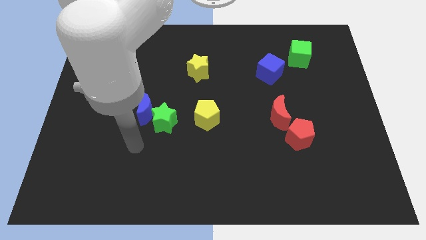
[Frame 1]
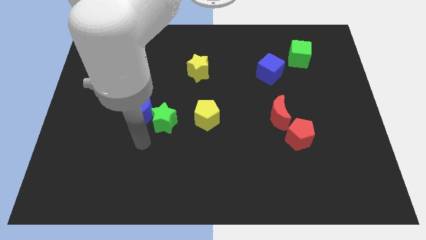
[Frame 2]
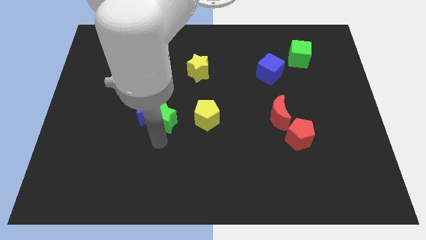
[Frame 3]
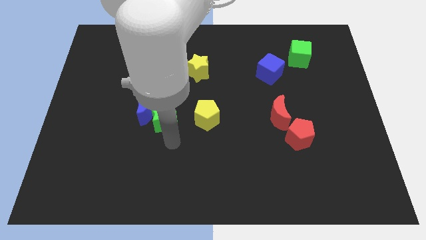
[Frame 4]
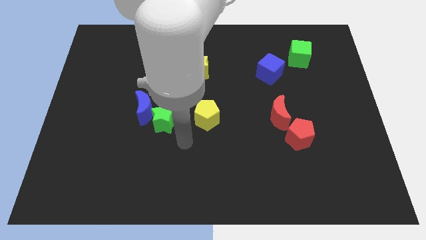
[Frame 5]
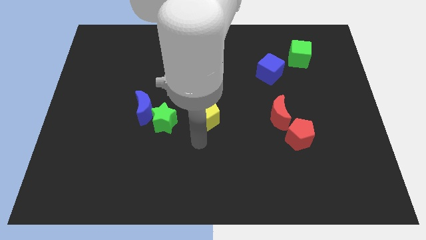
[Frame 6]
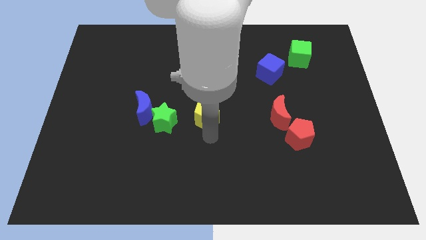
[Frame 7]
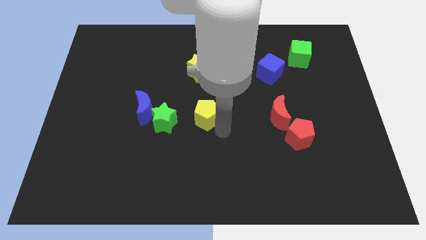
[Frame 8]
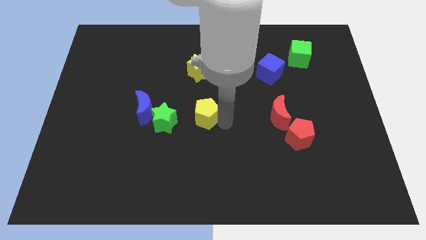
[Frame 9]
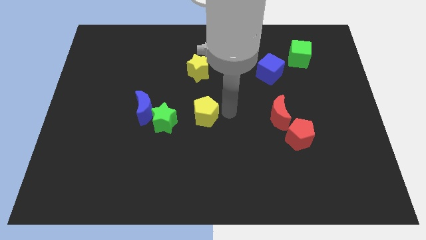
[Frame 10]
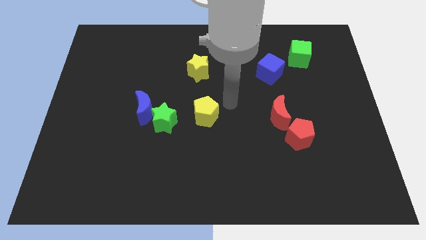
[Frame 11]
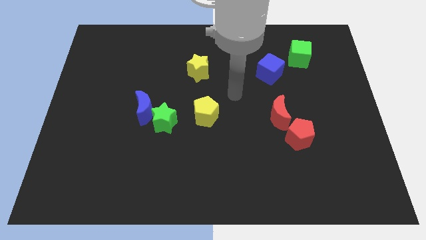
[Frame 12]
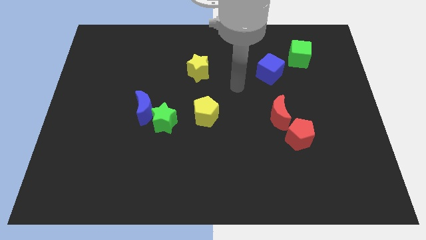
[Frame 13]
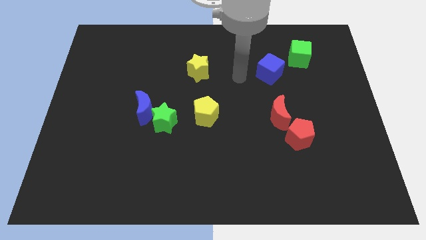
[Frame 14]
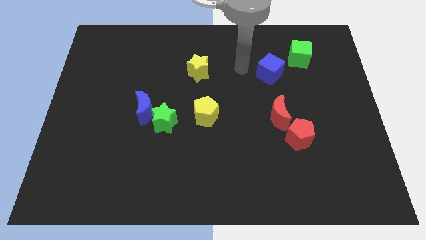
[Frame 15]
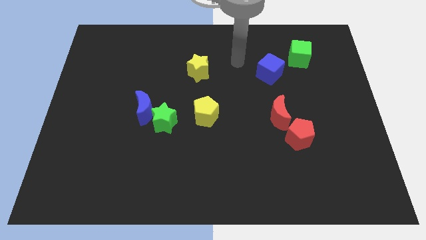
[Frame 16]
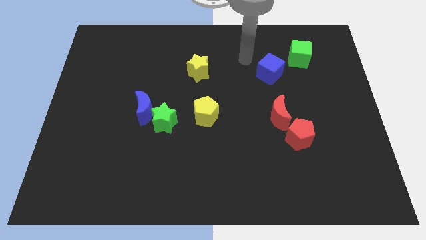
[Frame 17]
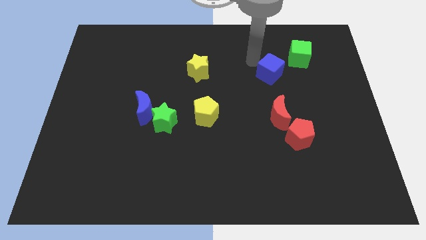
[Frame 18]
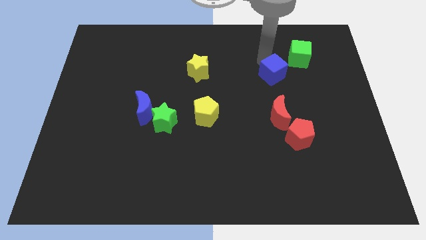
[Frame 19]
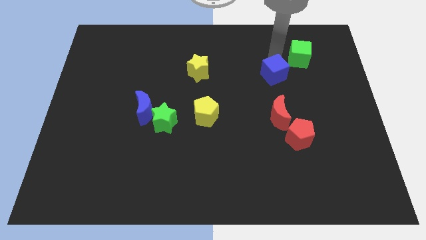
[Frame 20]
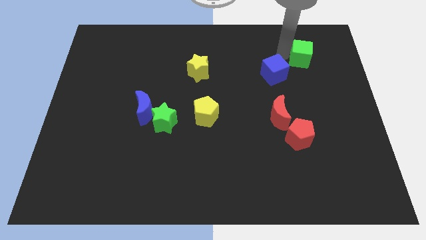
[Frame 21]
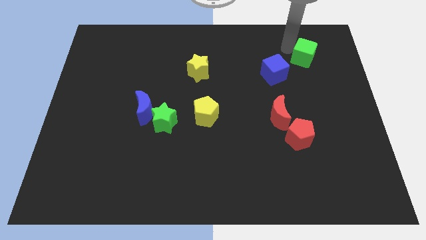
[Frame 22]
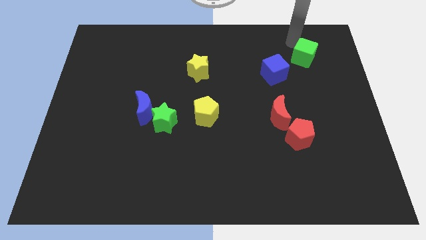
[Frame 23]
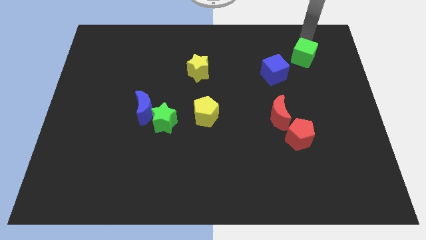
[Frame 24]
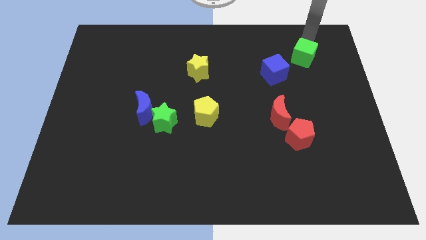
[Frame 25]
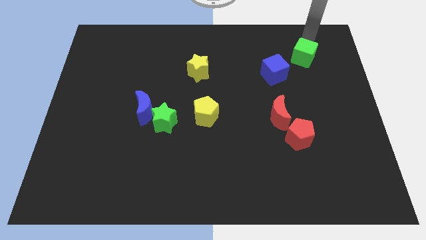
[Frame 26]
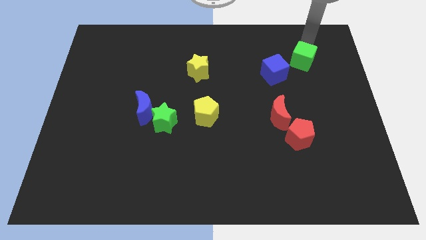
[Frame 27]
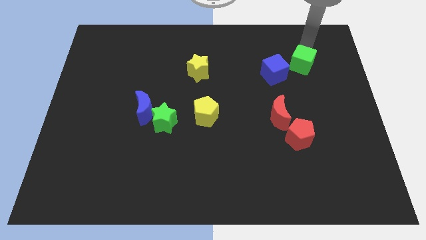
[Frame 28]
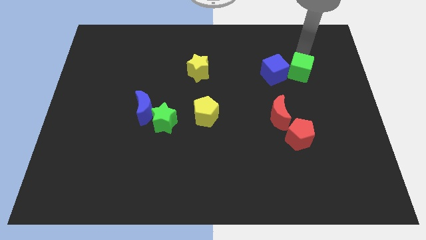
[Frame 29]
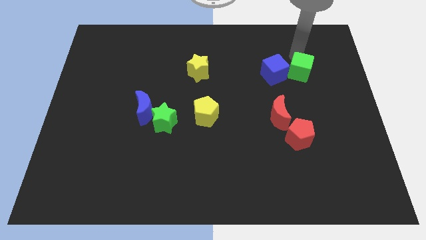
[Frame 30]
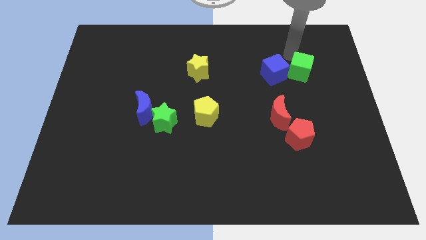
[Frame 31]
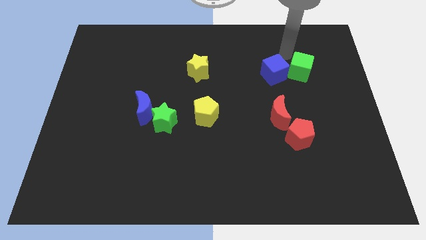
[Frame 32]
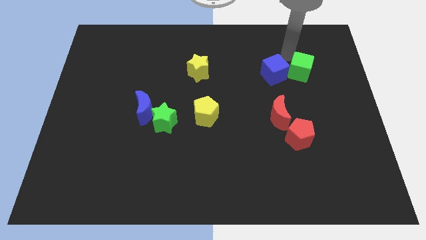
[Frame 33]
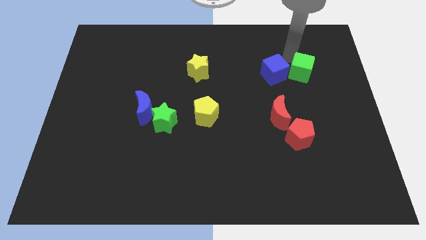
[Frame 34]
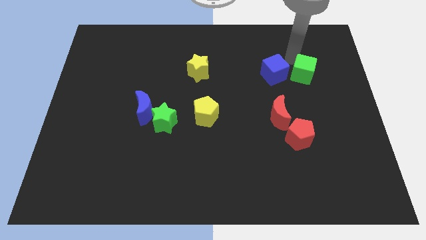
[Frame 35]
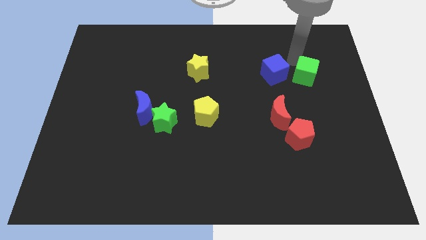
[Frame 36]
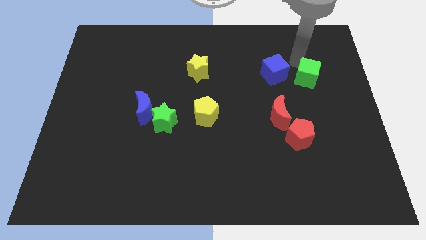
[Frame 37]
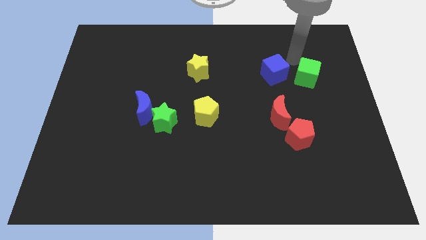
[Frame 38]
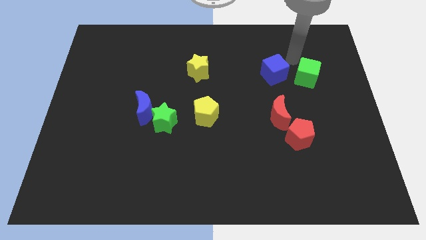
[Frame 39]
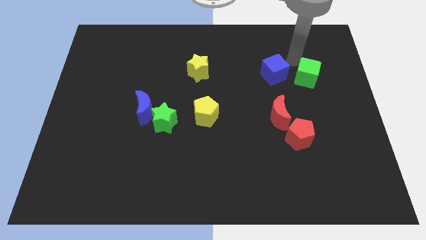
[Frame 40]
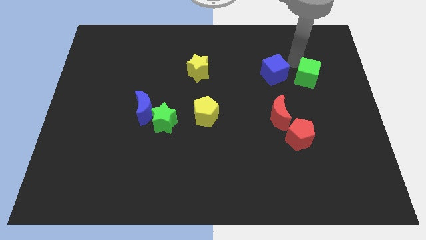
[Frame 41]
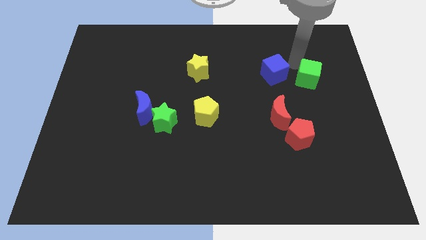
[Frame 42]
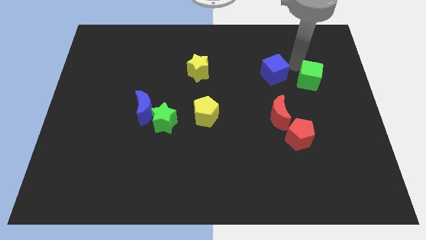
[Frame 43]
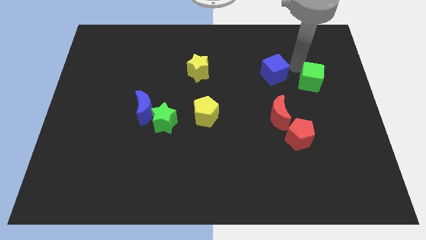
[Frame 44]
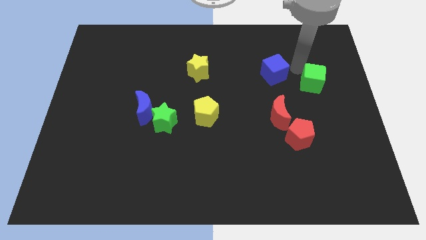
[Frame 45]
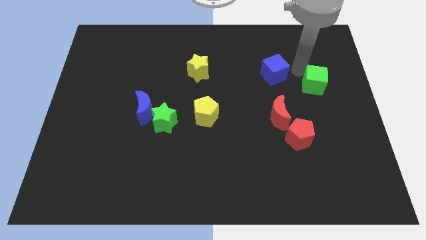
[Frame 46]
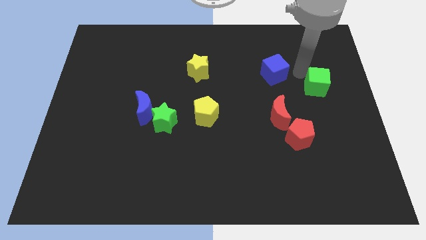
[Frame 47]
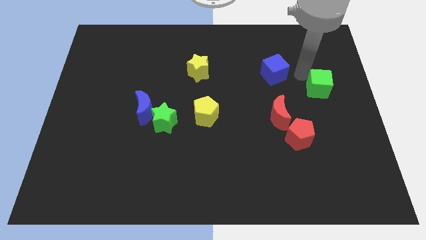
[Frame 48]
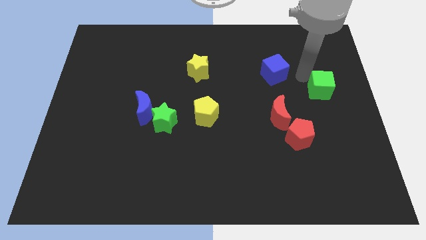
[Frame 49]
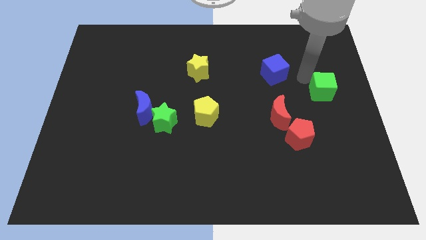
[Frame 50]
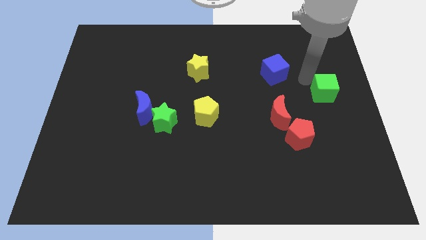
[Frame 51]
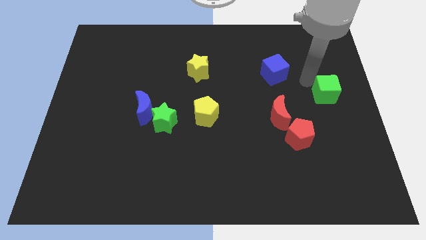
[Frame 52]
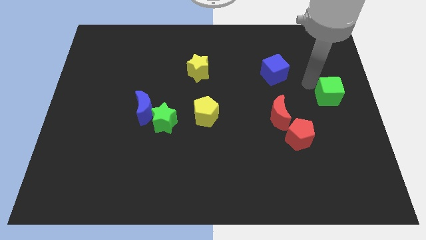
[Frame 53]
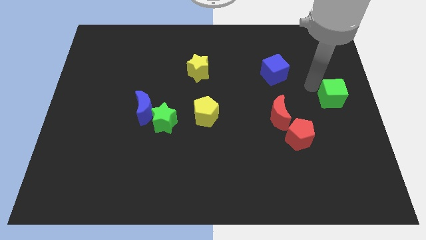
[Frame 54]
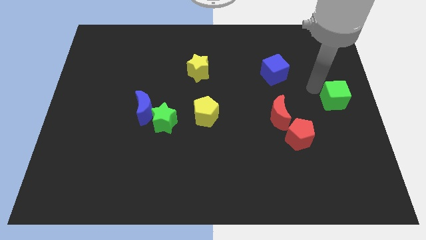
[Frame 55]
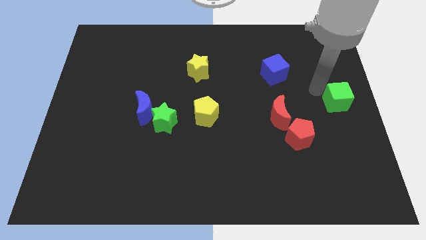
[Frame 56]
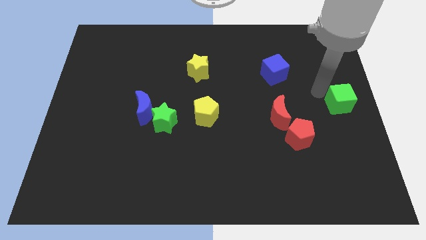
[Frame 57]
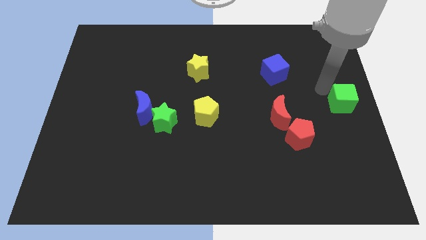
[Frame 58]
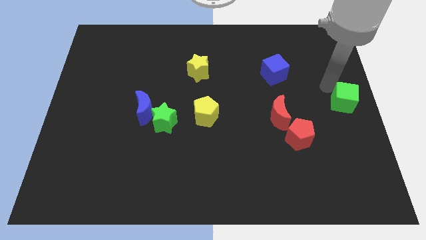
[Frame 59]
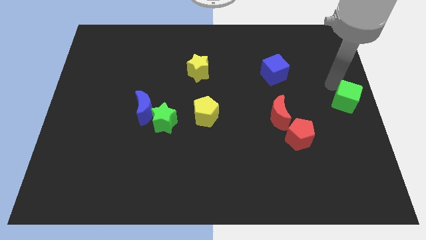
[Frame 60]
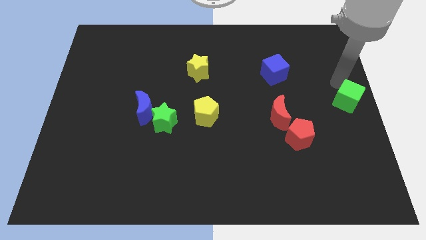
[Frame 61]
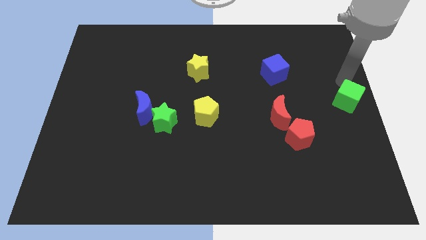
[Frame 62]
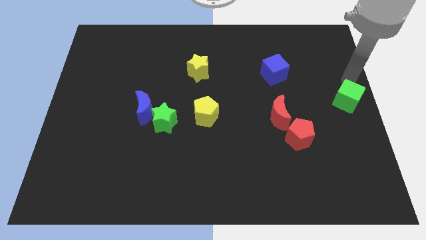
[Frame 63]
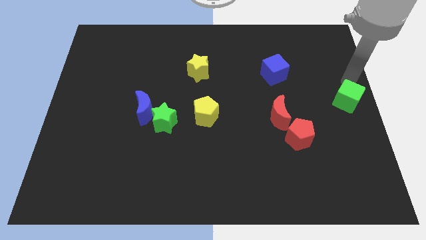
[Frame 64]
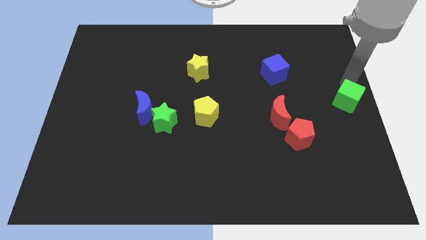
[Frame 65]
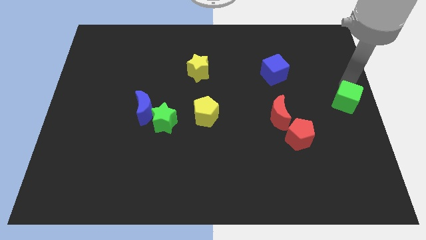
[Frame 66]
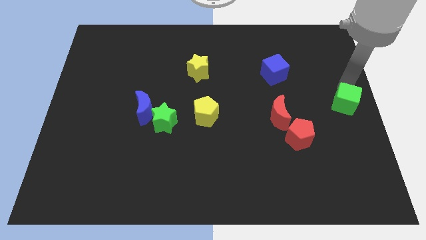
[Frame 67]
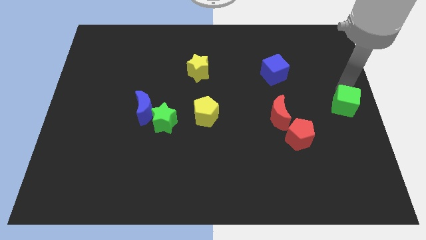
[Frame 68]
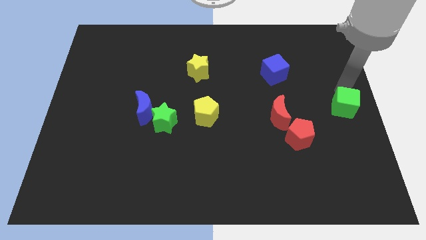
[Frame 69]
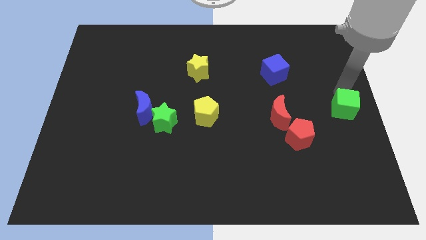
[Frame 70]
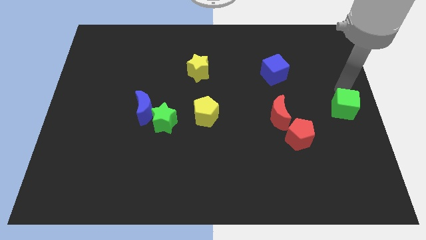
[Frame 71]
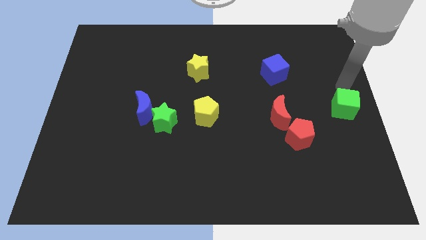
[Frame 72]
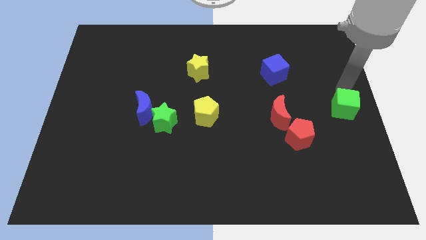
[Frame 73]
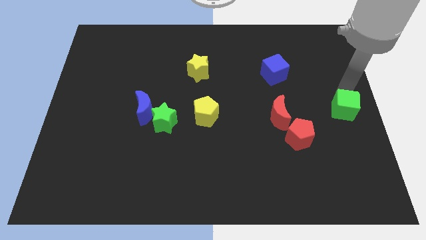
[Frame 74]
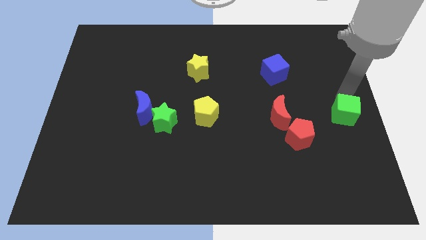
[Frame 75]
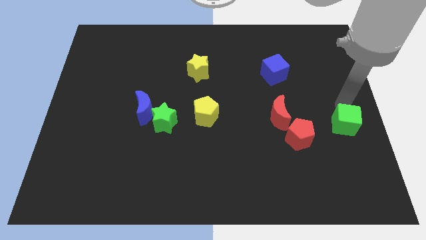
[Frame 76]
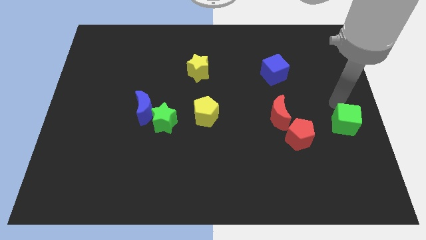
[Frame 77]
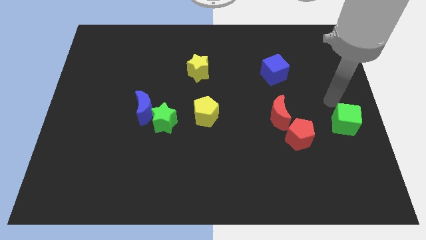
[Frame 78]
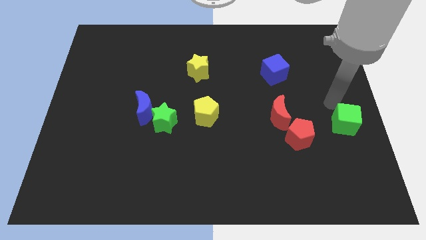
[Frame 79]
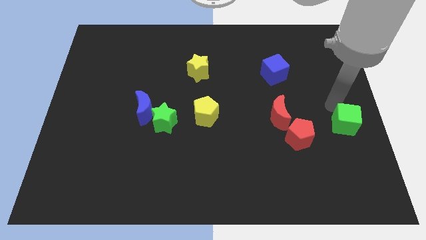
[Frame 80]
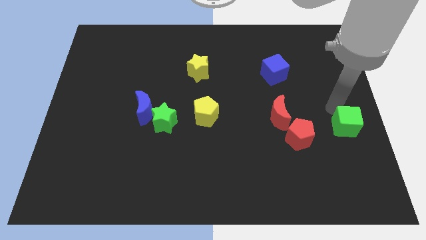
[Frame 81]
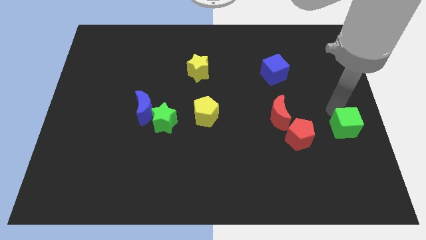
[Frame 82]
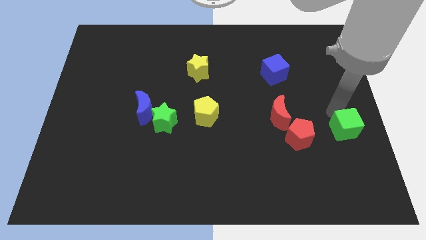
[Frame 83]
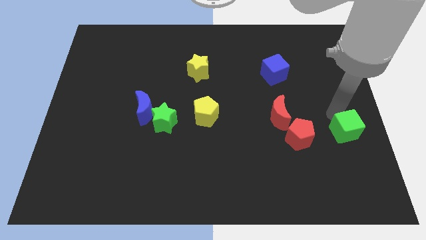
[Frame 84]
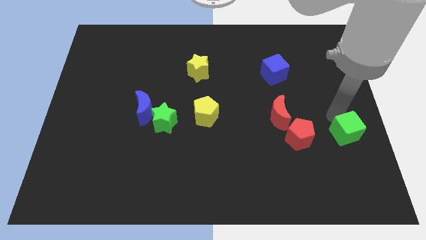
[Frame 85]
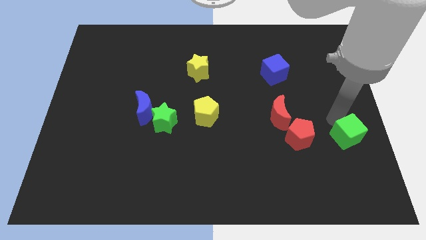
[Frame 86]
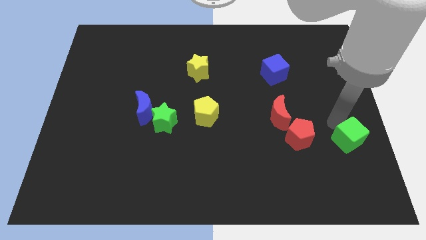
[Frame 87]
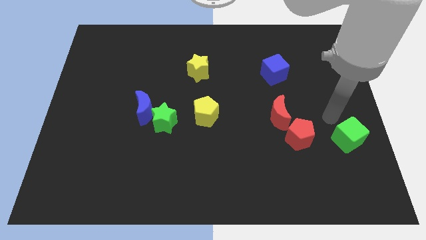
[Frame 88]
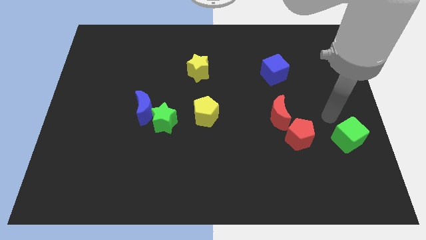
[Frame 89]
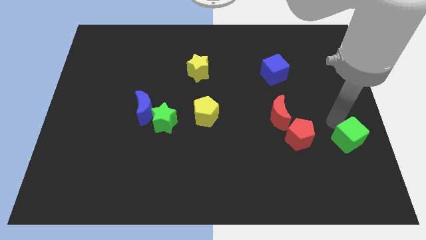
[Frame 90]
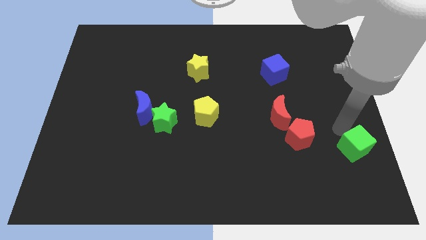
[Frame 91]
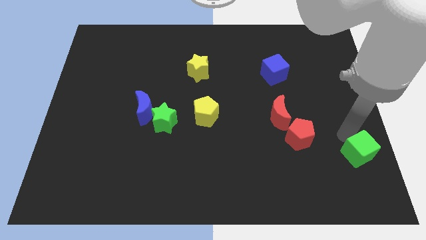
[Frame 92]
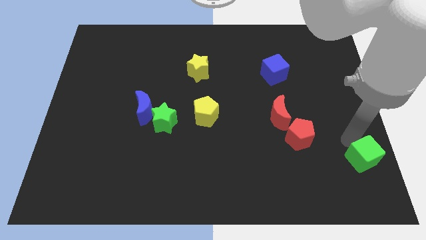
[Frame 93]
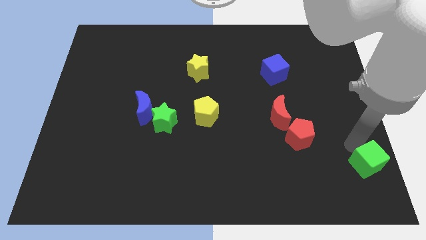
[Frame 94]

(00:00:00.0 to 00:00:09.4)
put the green cube to the bottom right
